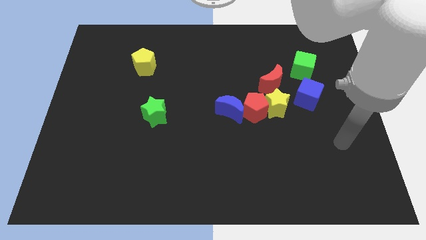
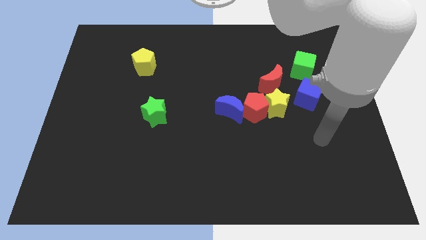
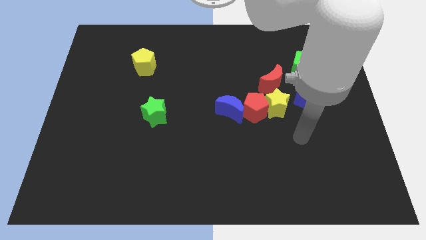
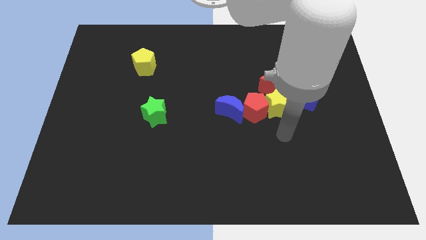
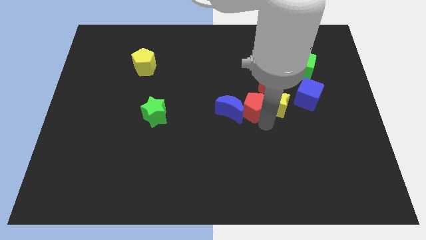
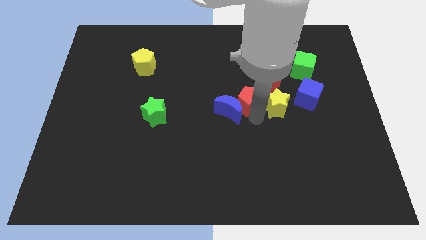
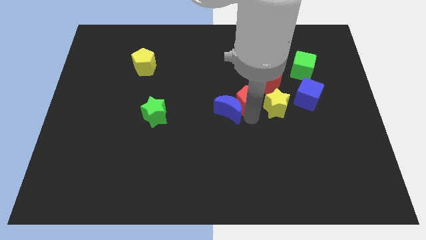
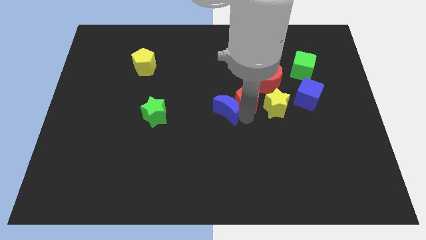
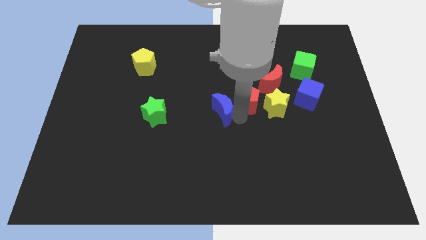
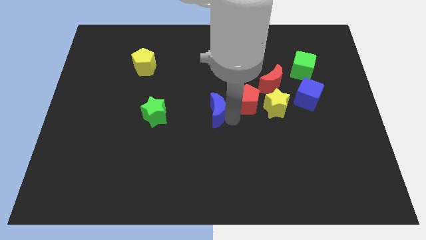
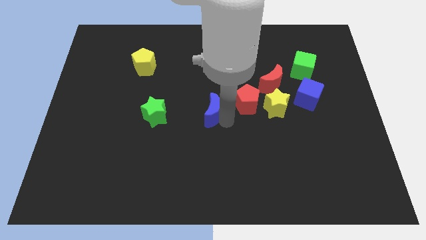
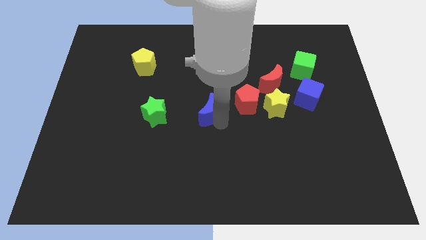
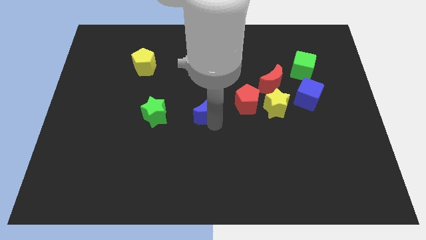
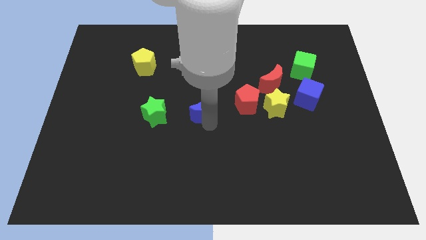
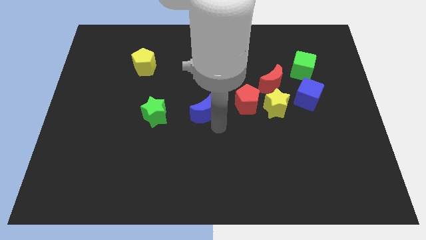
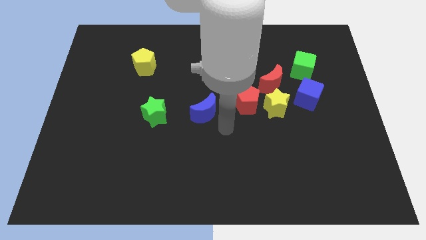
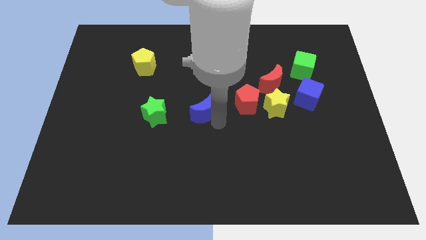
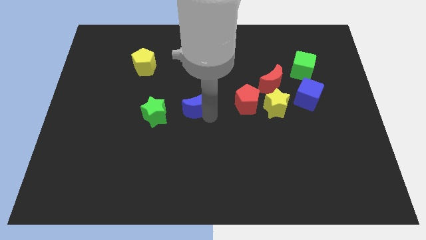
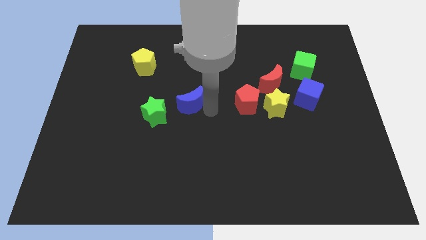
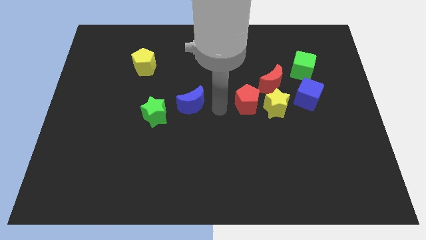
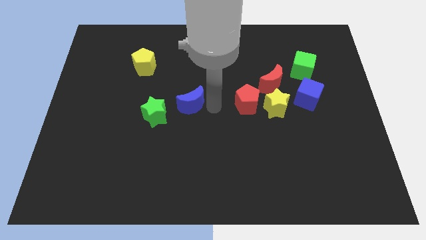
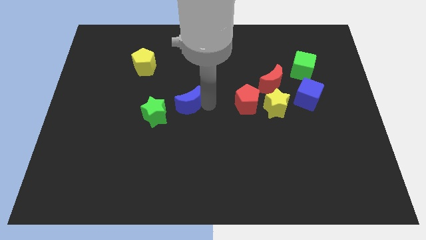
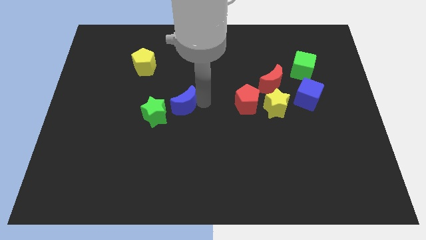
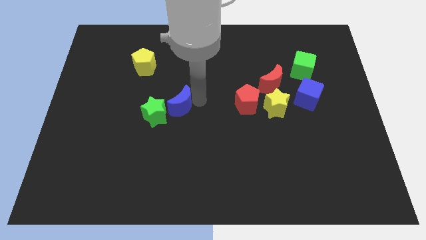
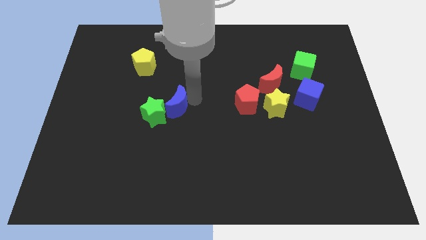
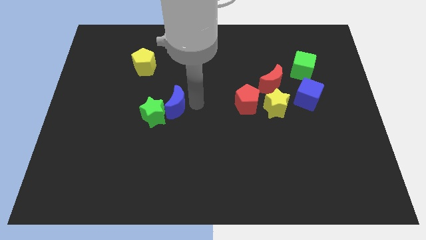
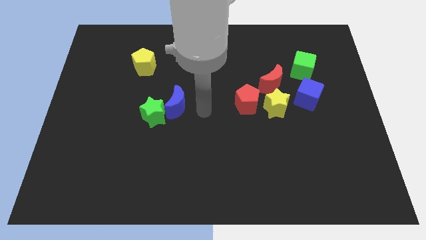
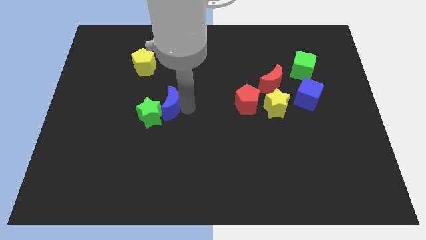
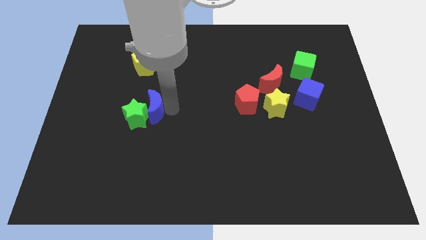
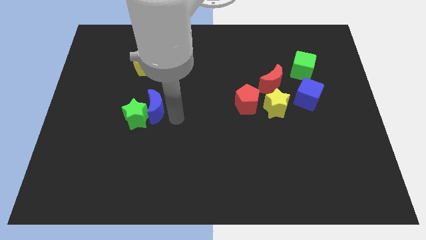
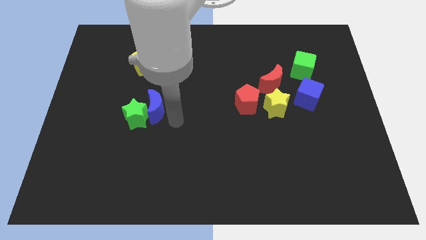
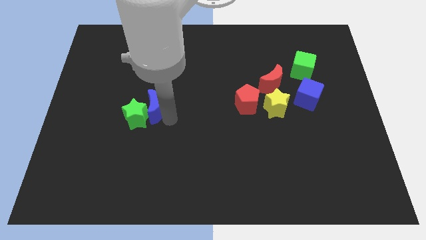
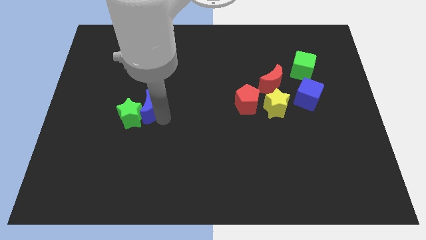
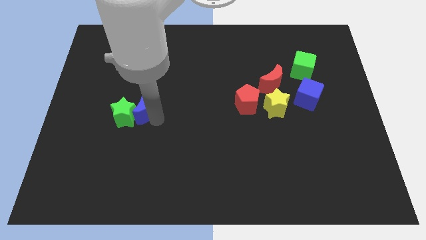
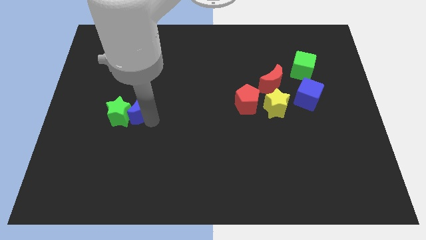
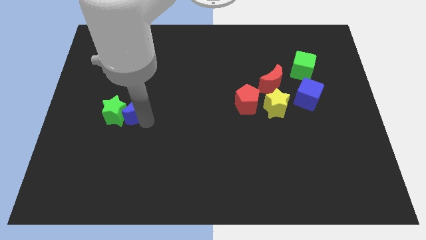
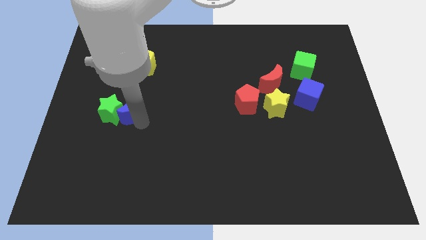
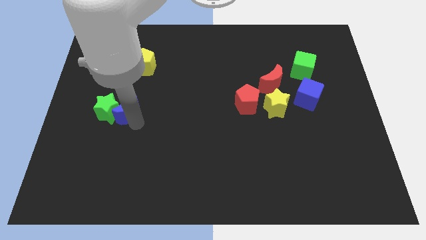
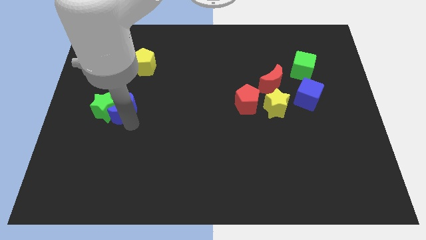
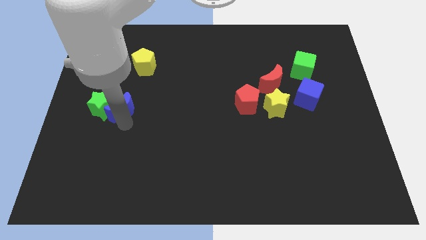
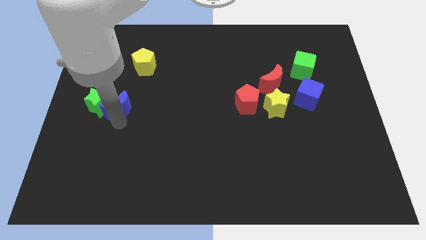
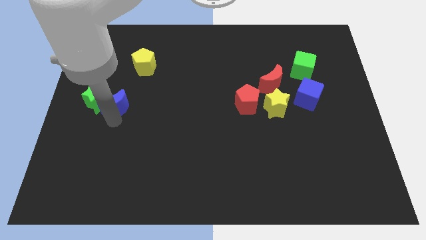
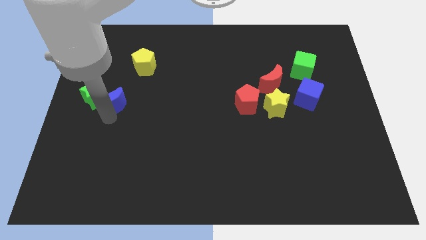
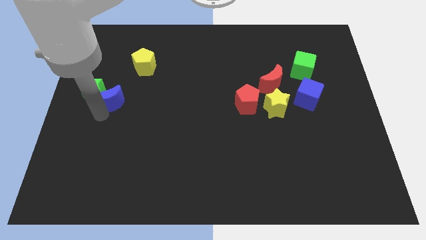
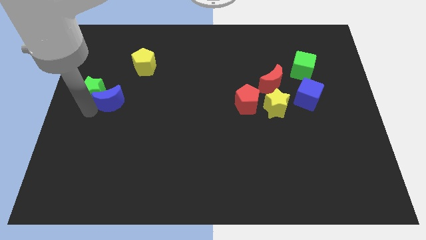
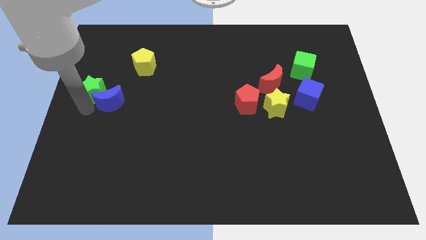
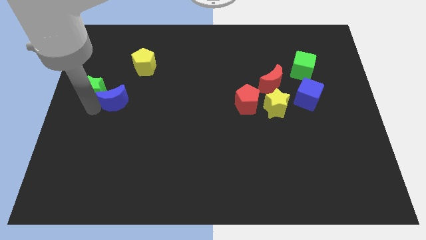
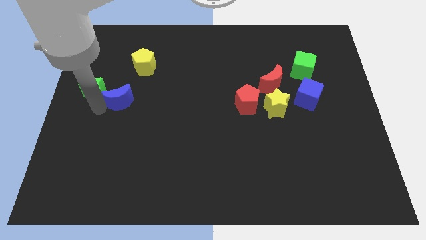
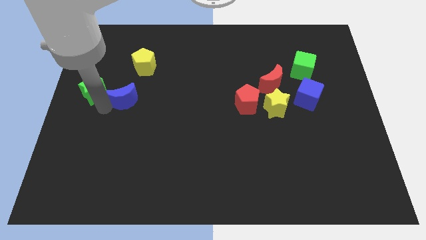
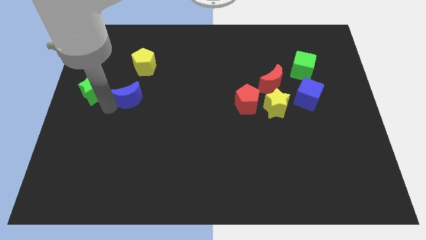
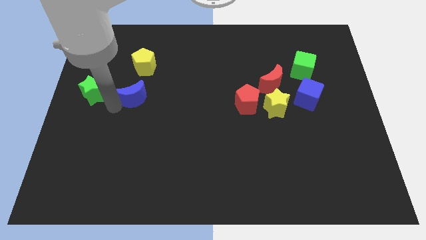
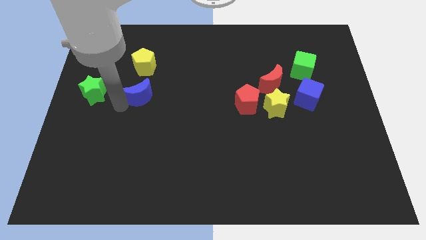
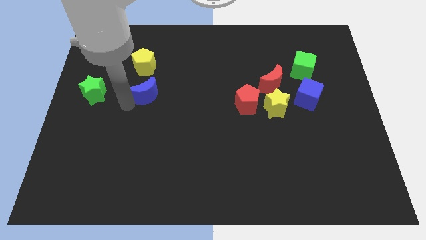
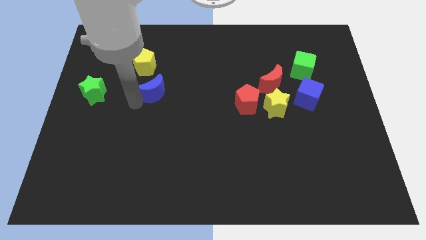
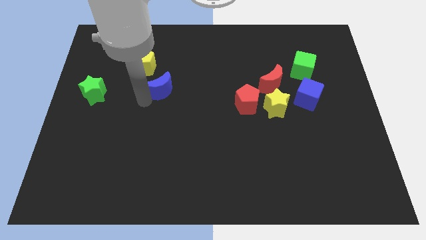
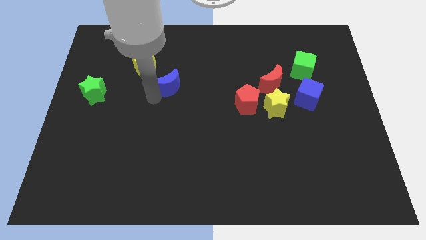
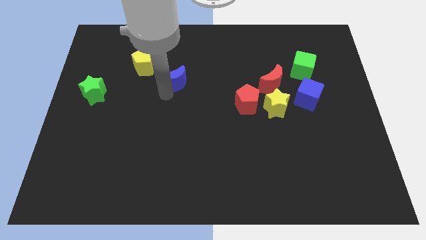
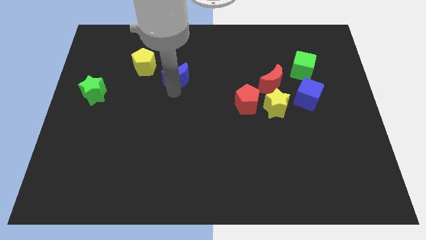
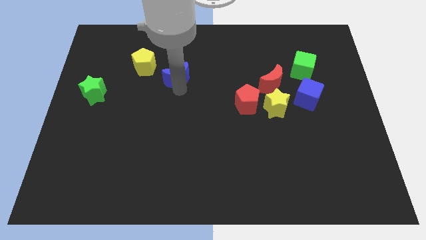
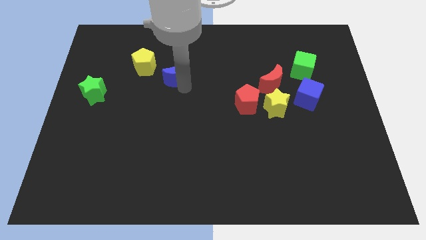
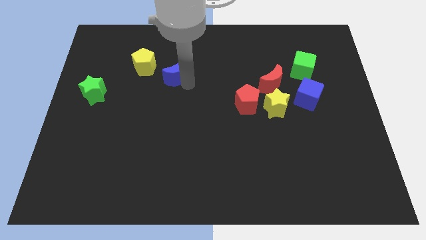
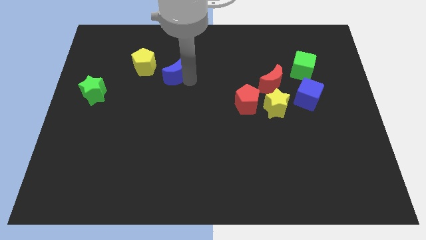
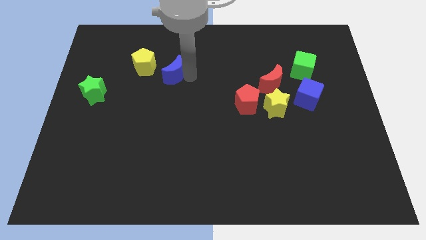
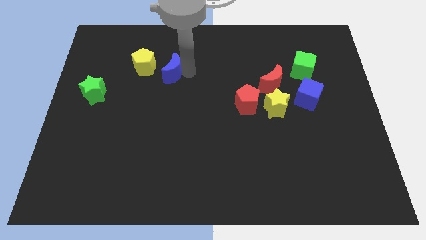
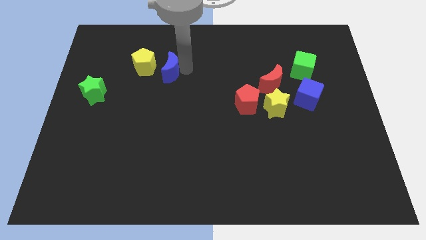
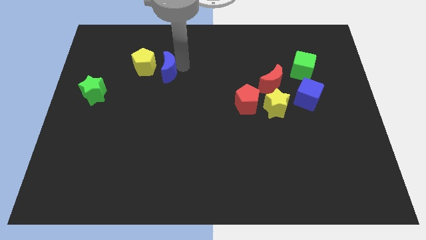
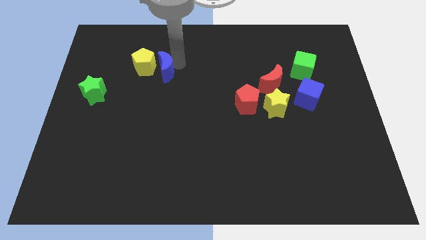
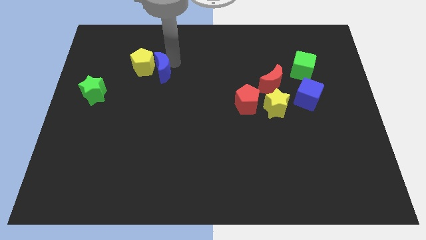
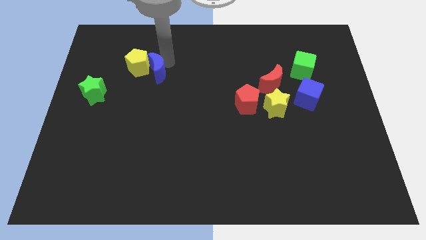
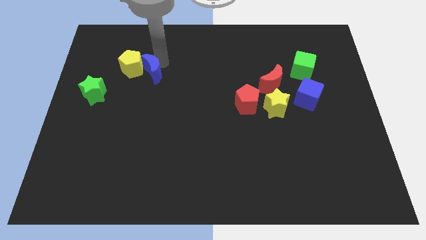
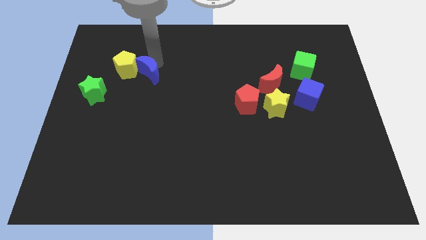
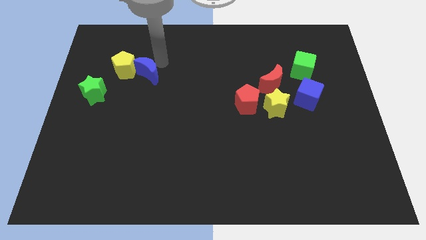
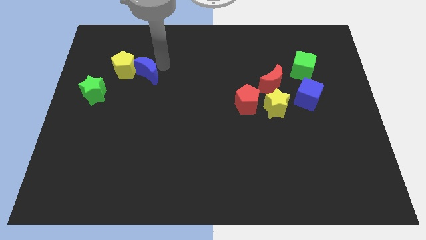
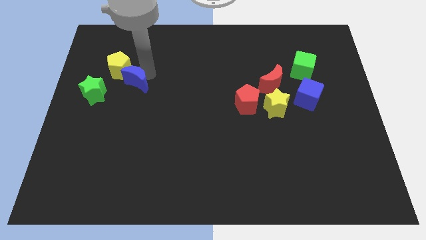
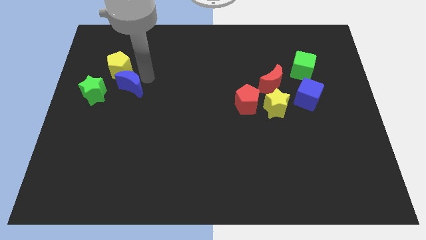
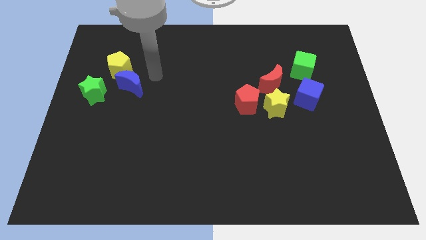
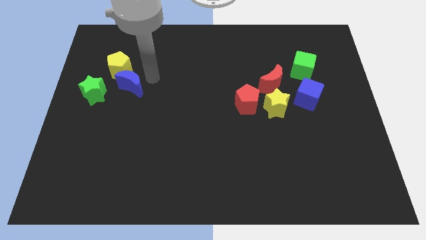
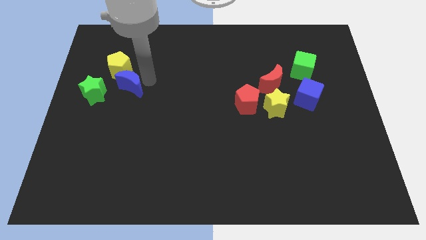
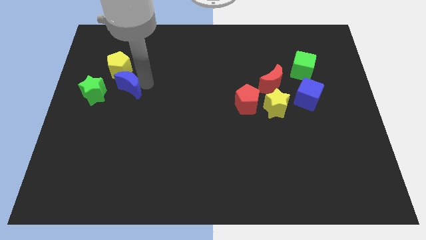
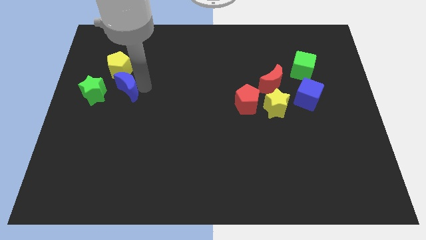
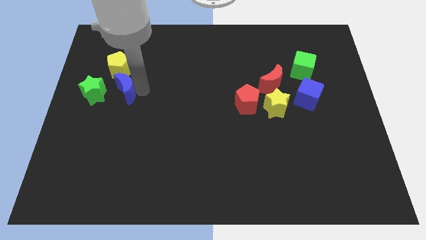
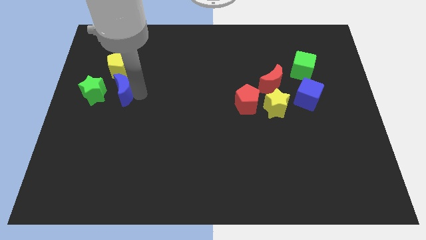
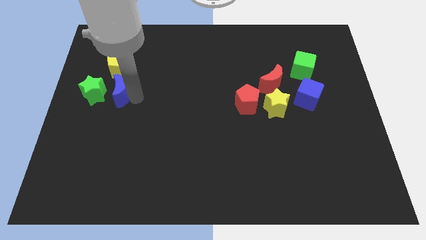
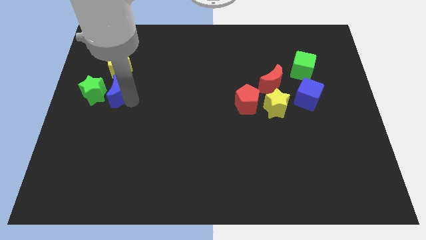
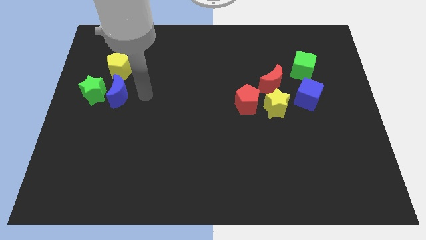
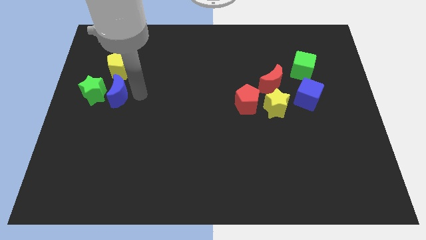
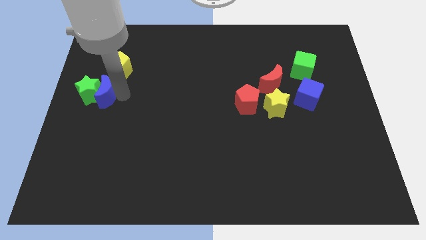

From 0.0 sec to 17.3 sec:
slide the blue moon to the left side of the board
